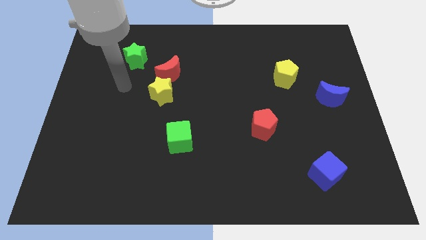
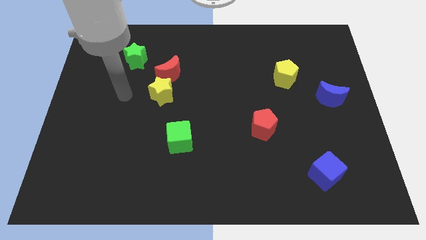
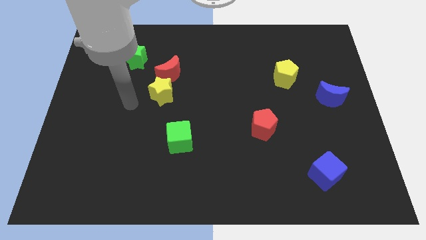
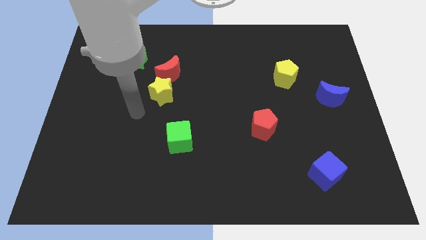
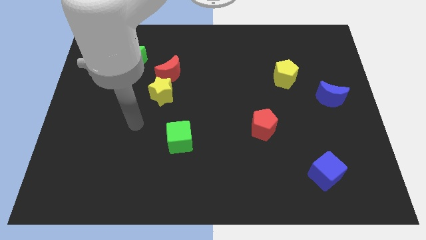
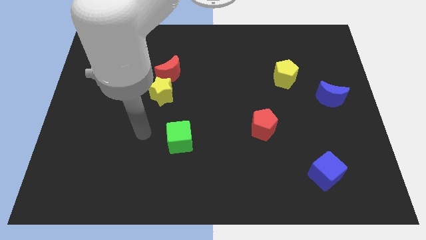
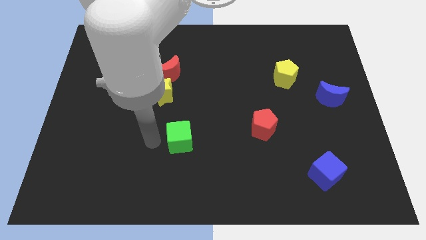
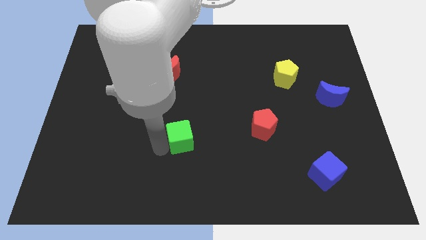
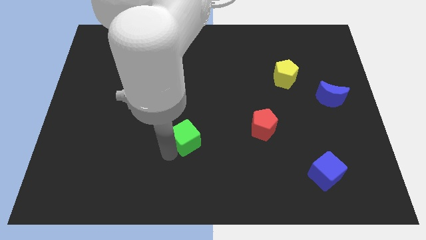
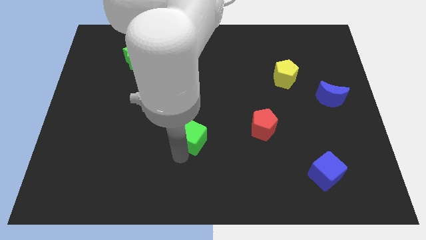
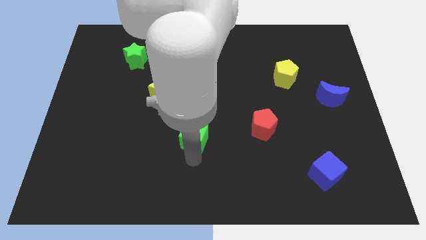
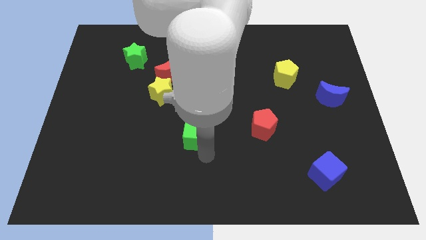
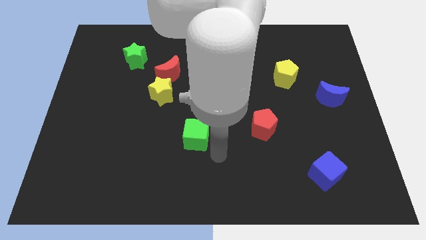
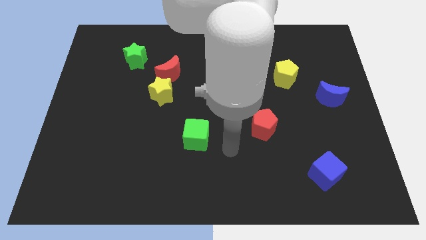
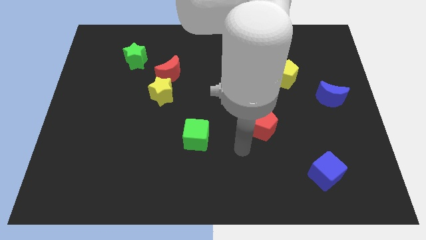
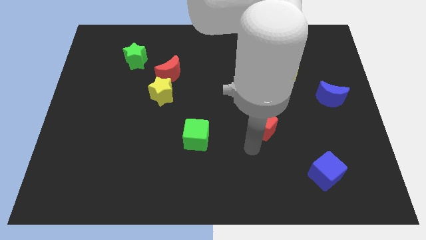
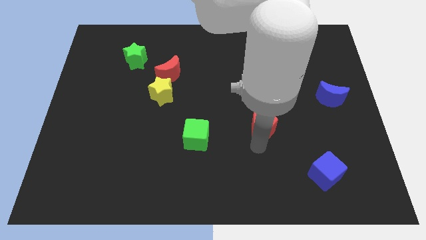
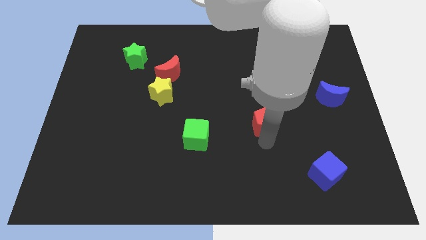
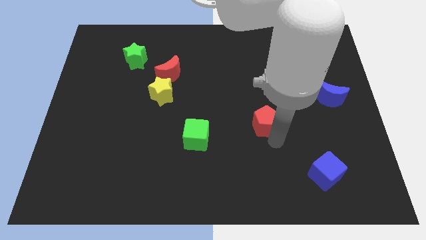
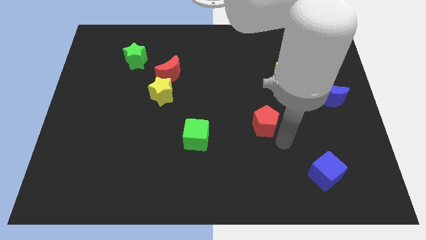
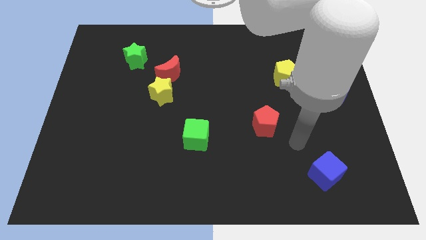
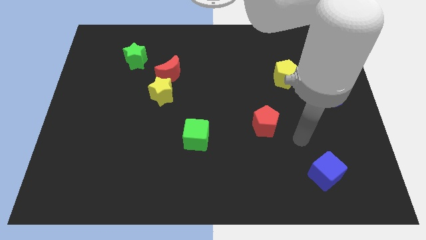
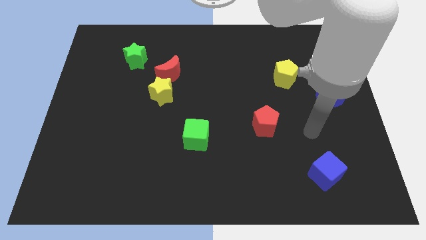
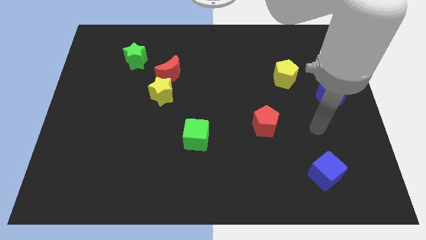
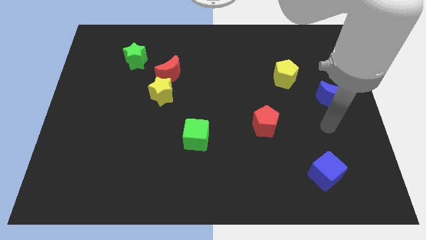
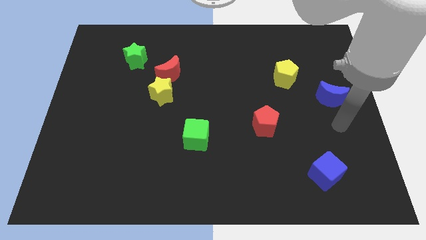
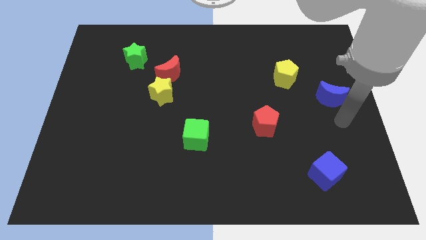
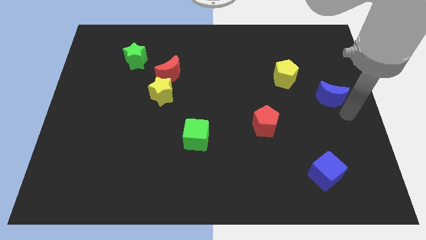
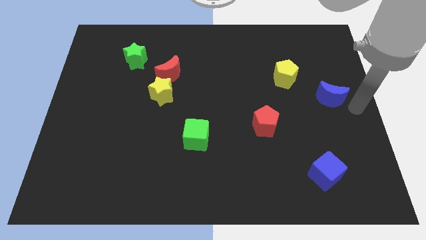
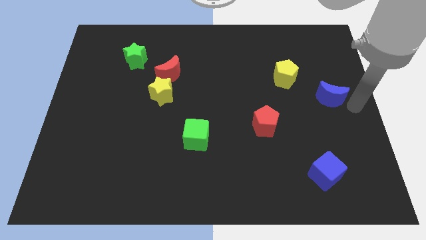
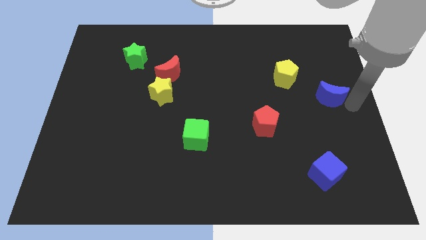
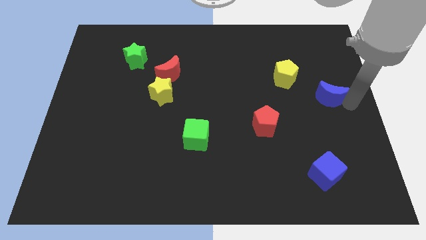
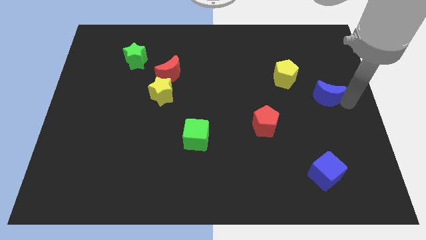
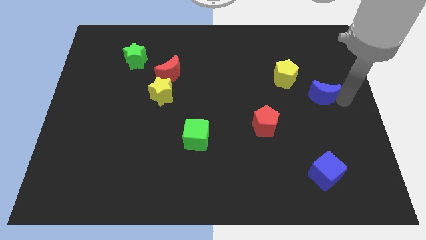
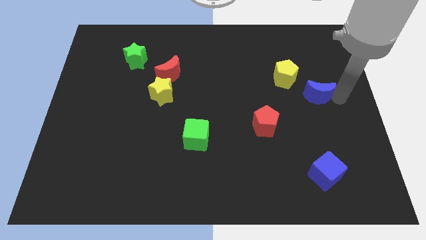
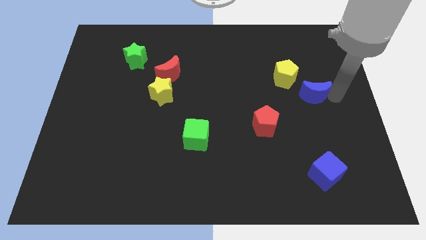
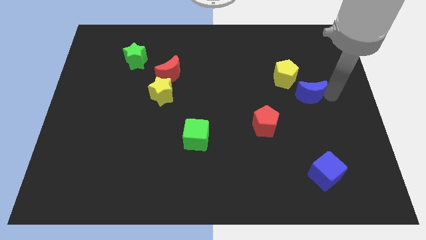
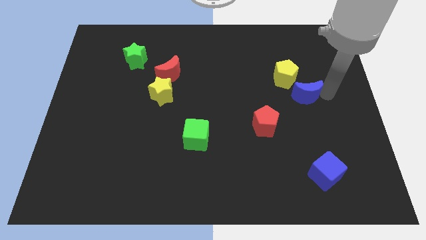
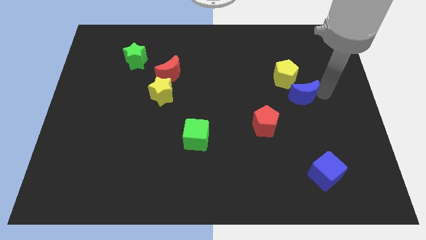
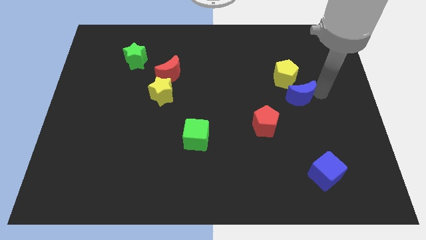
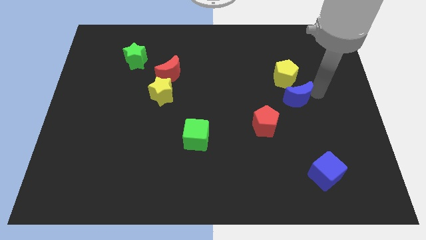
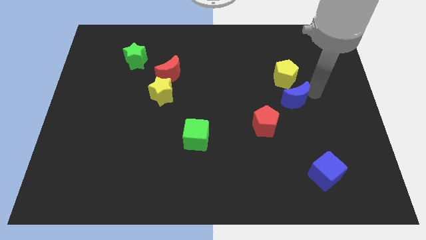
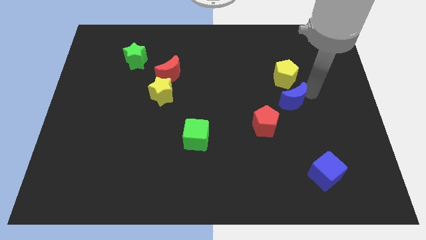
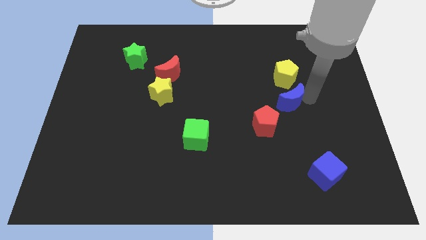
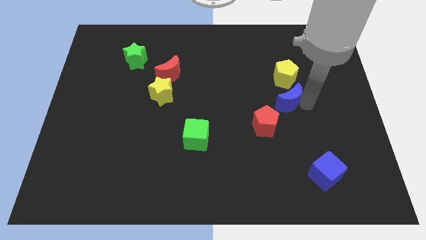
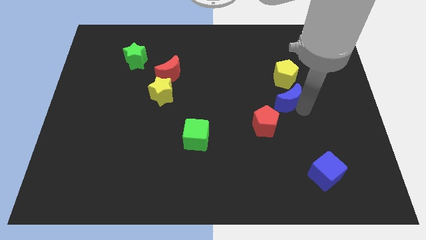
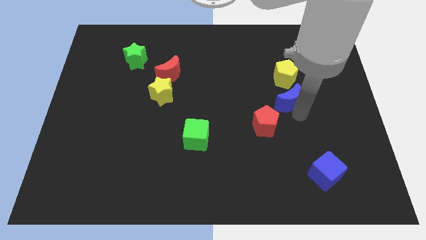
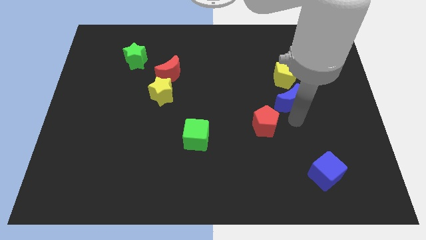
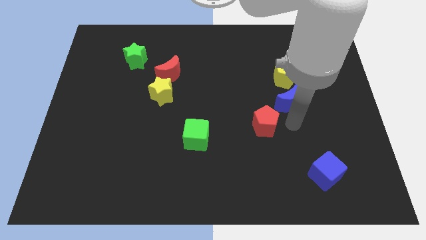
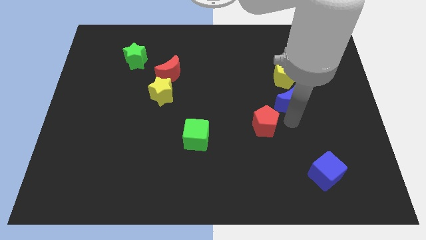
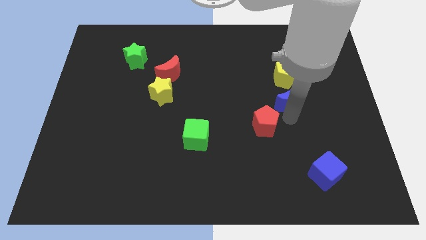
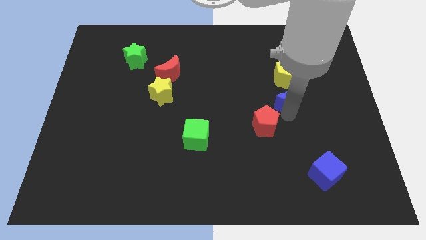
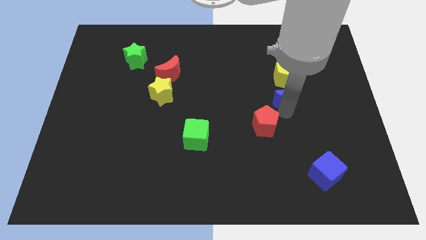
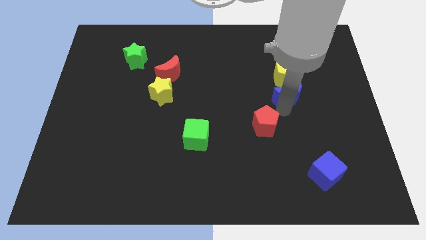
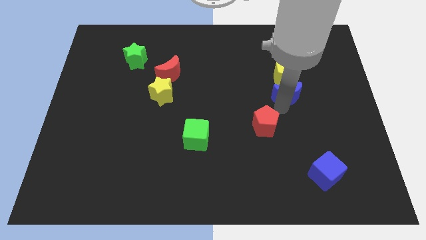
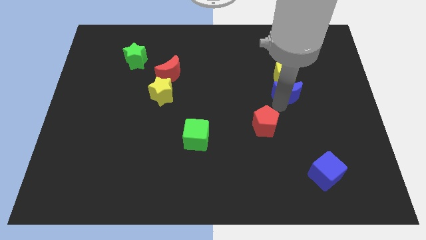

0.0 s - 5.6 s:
move the blue moon towards the yellow pentagon

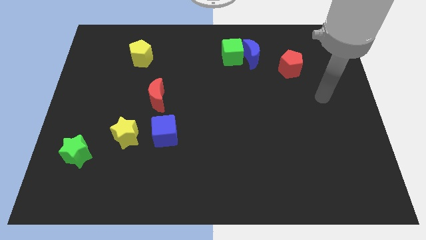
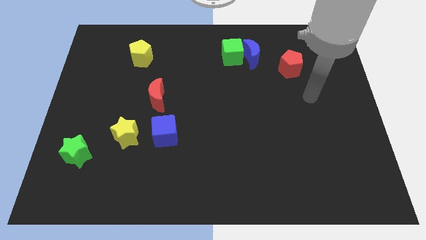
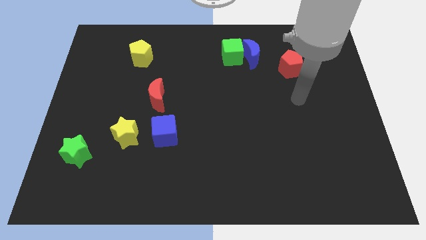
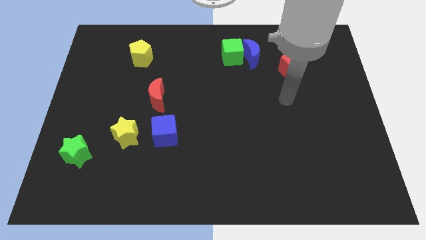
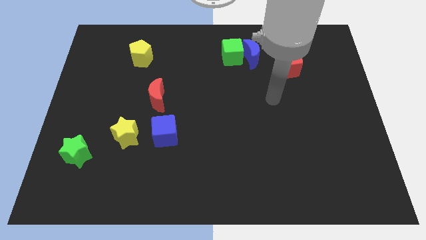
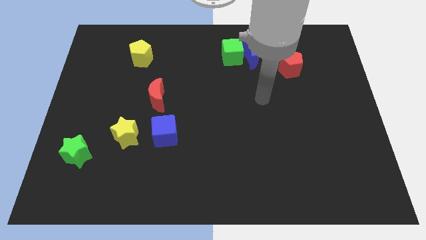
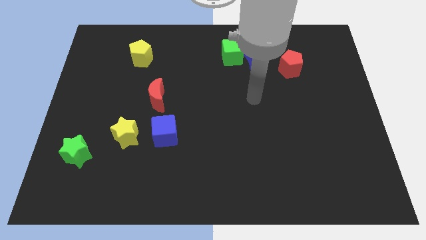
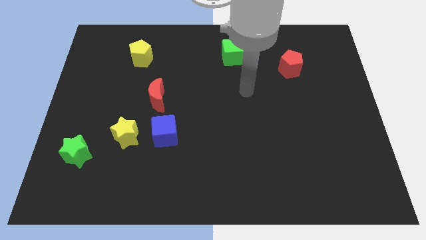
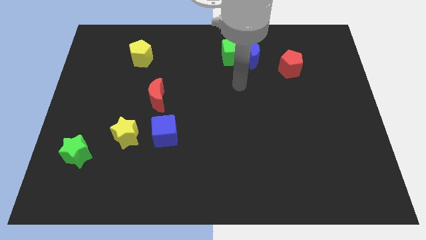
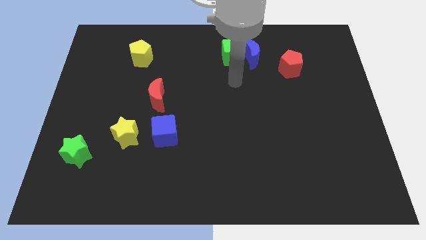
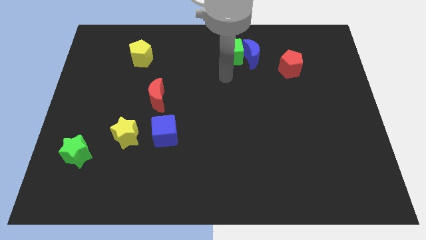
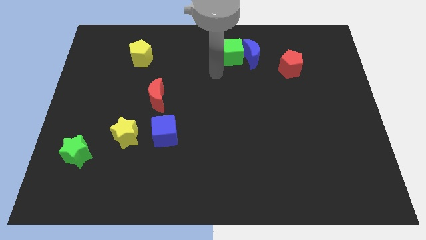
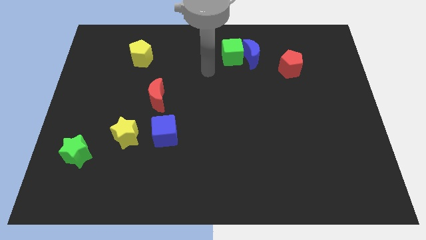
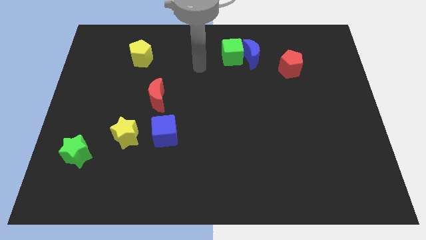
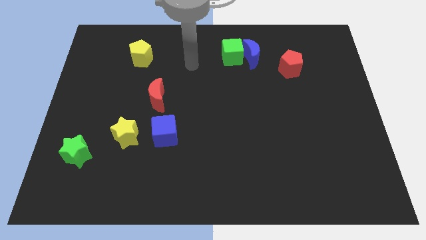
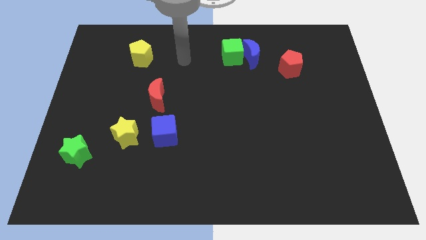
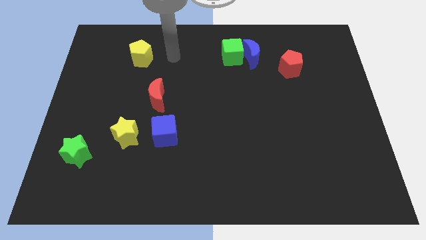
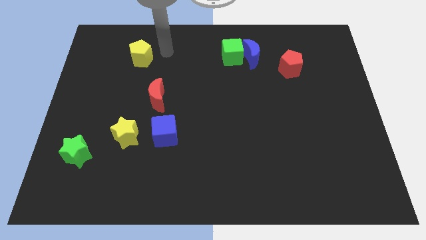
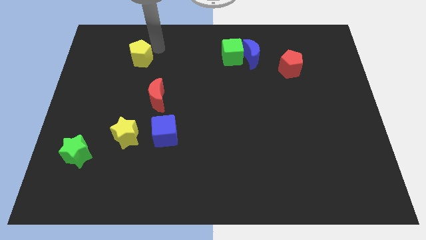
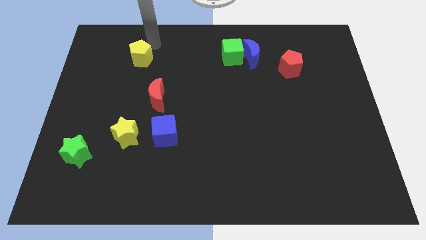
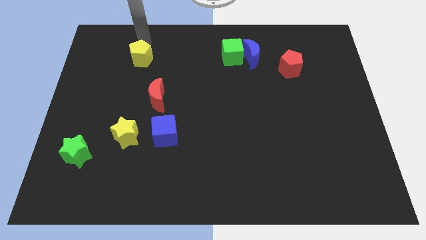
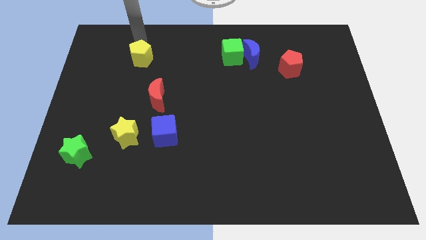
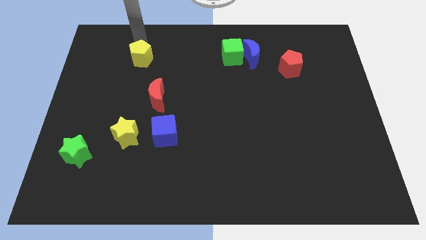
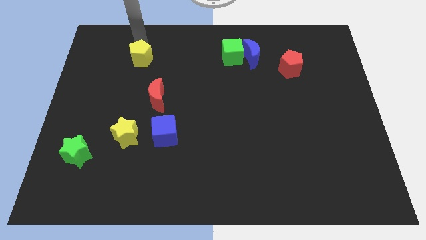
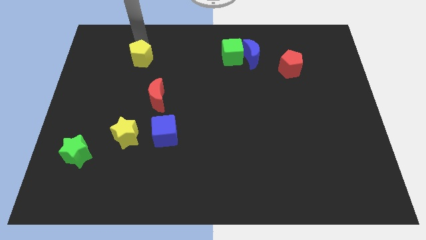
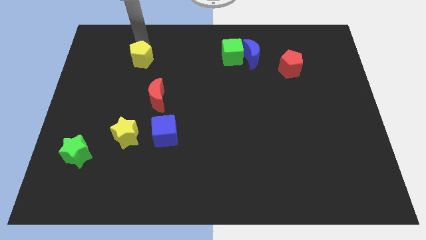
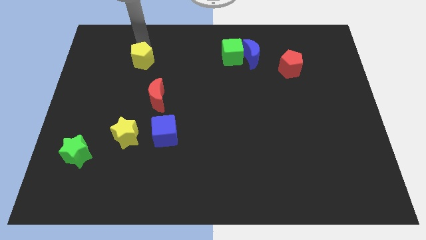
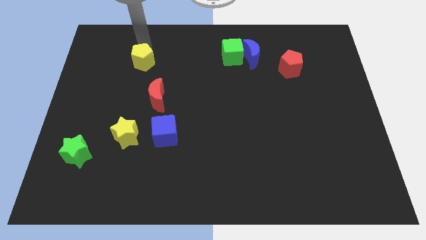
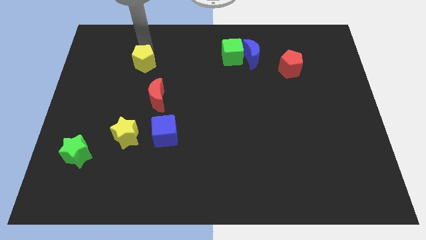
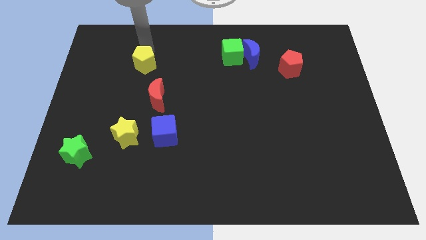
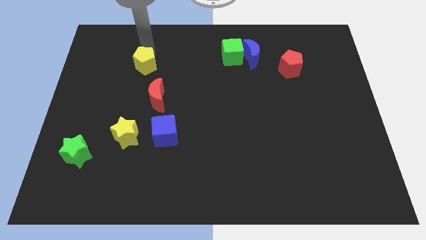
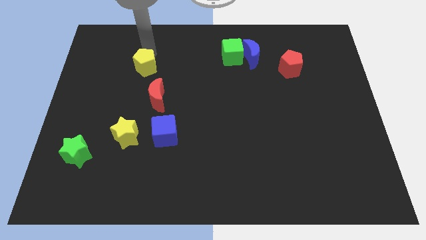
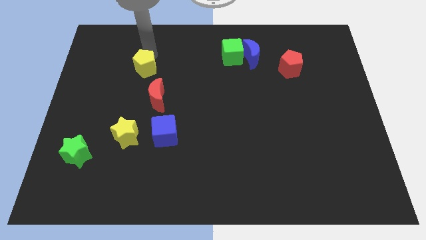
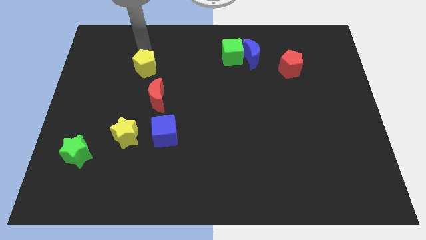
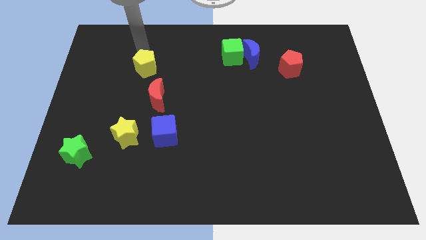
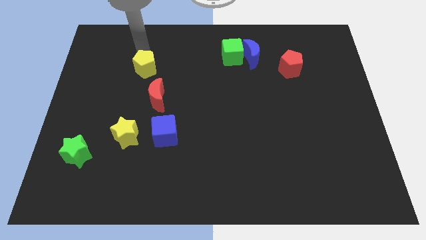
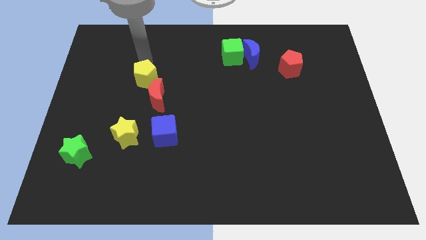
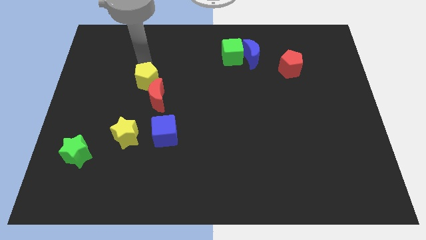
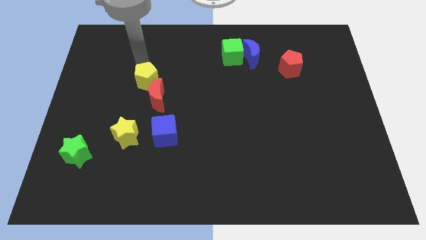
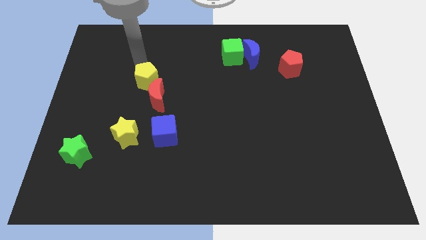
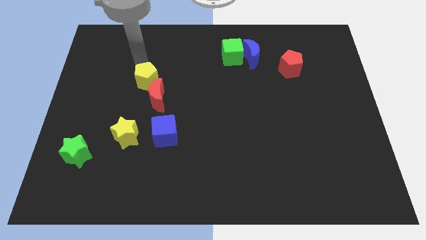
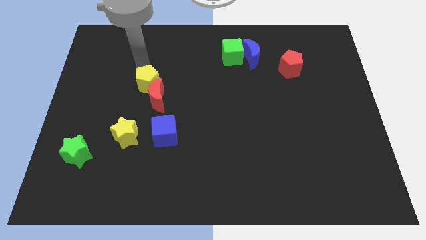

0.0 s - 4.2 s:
put the yellow pentagon to the red moon
